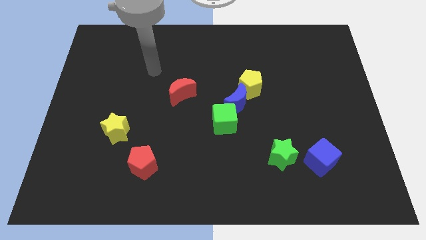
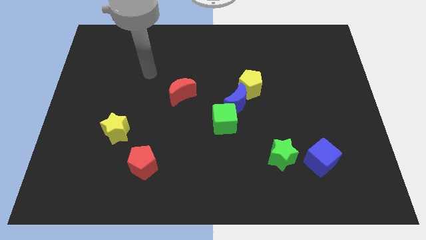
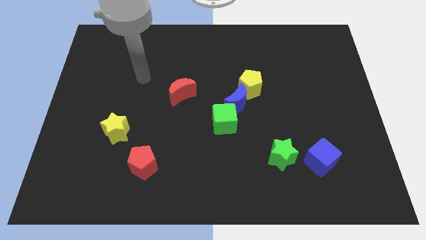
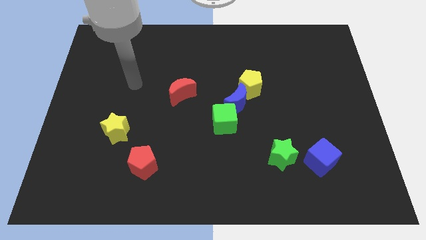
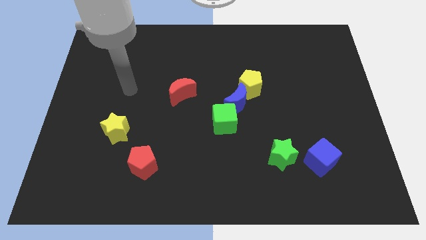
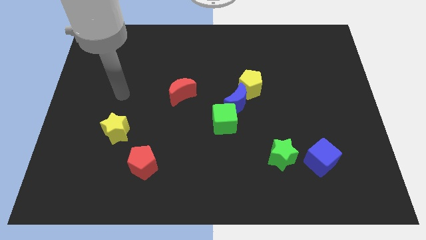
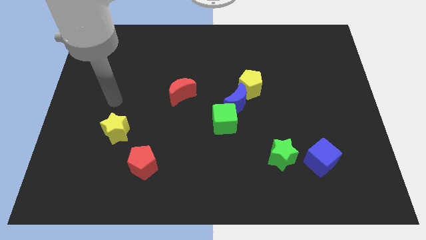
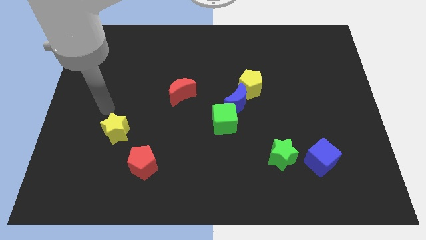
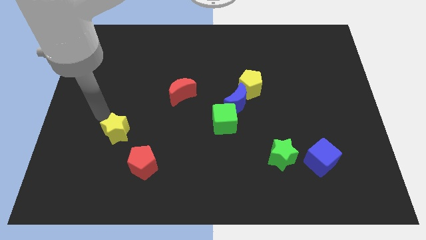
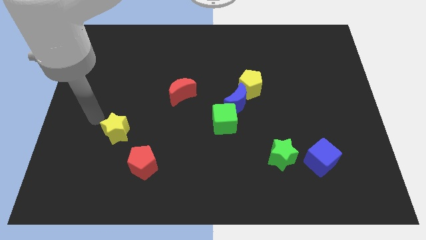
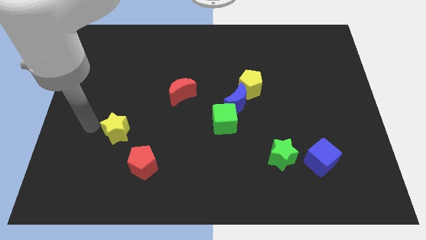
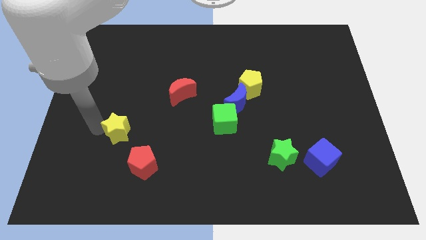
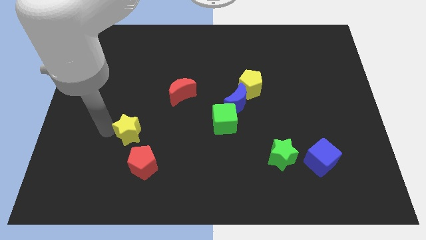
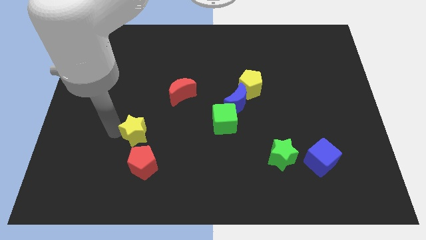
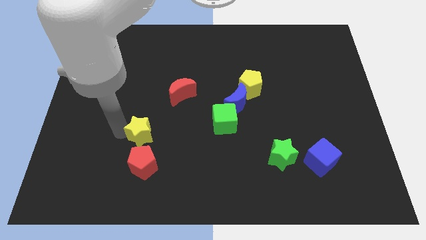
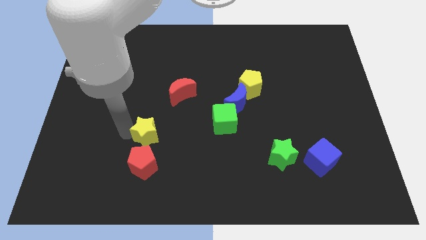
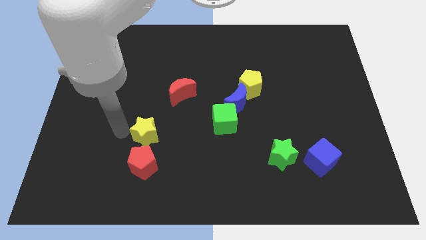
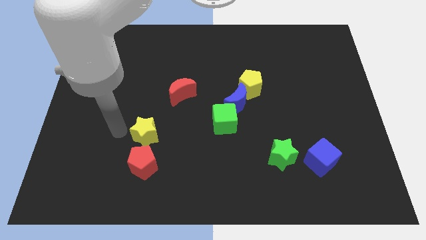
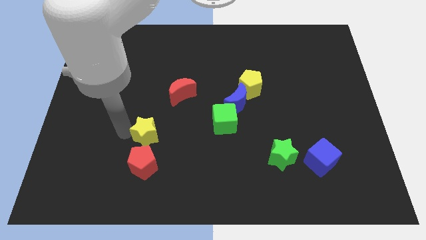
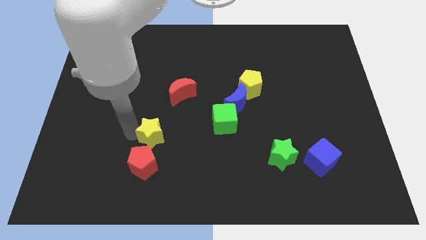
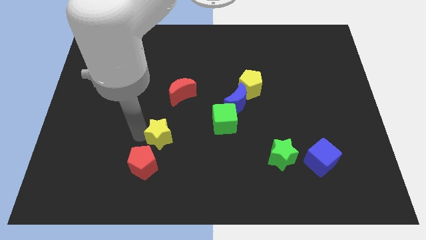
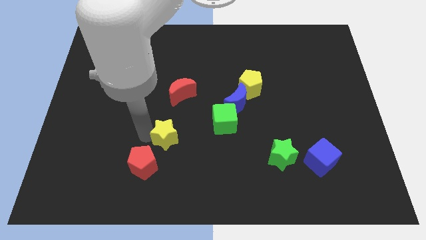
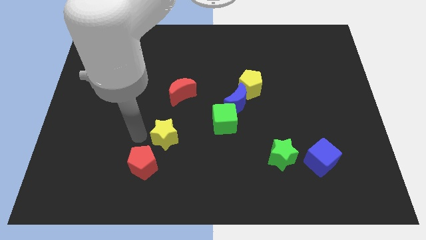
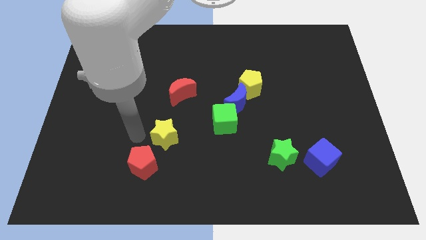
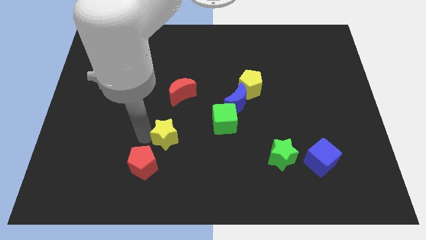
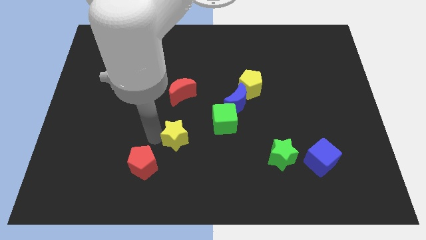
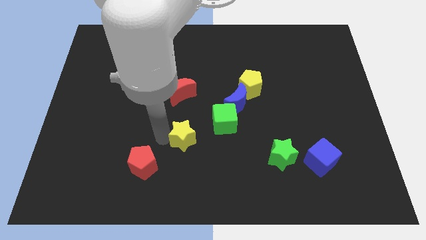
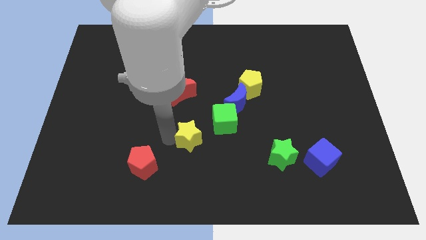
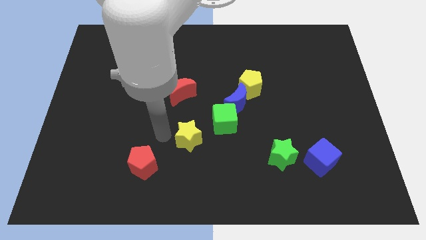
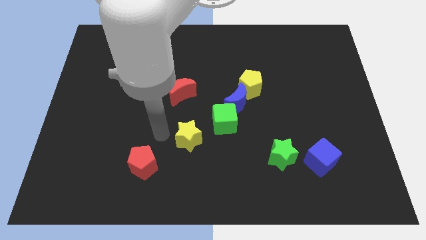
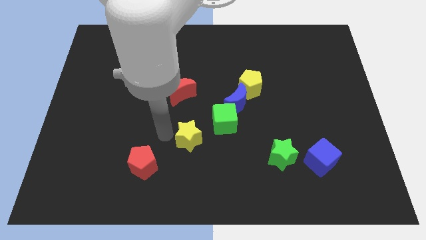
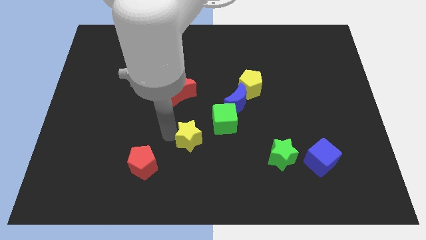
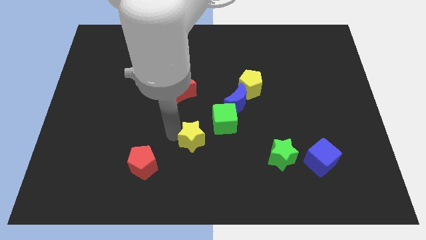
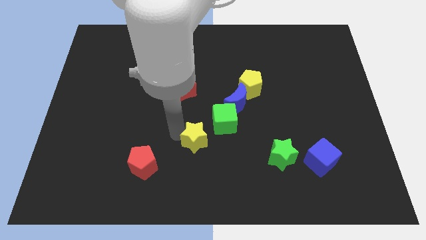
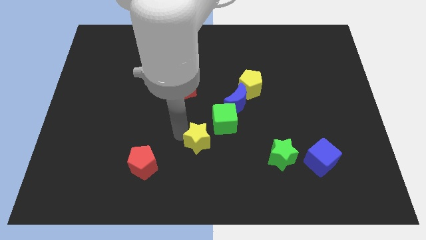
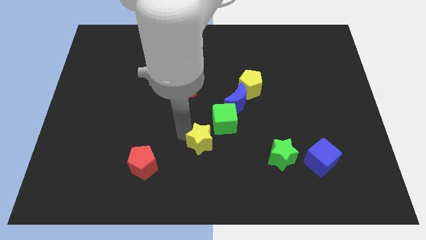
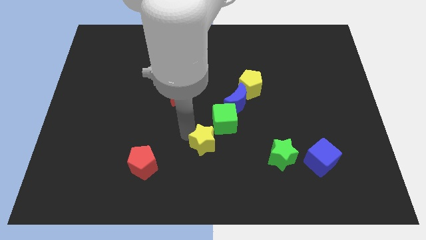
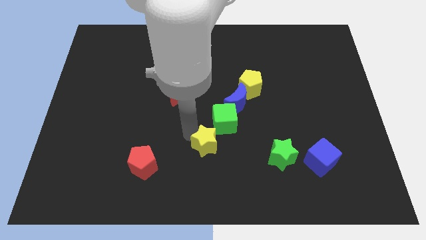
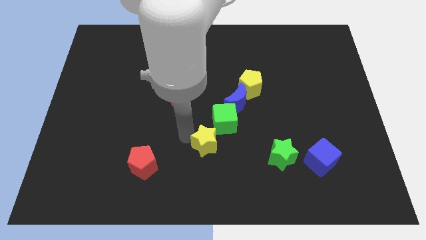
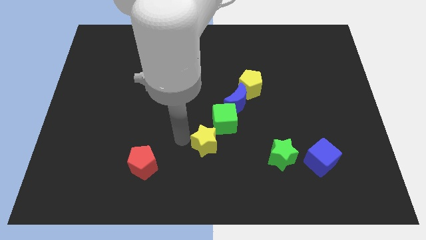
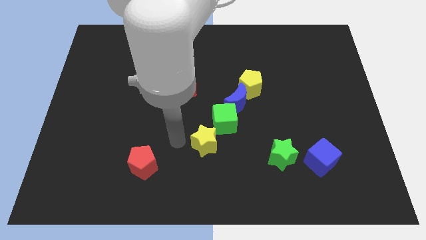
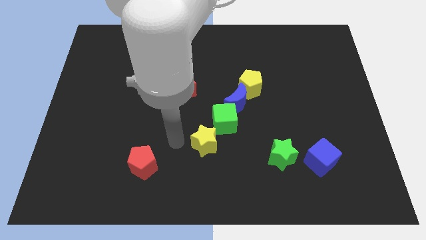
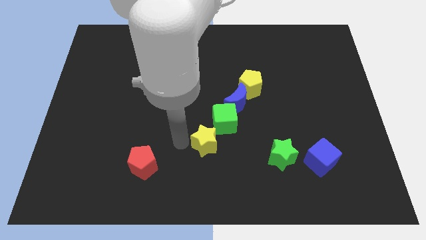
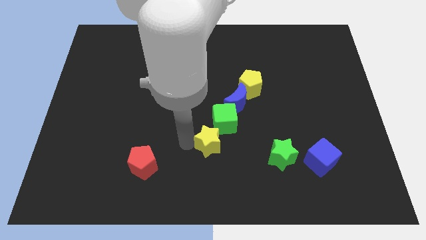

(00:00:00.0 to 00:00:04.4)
move the yellow star to the right

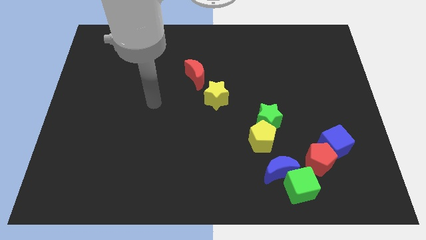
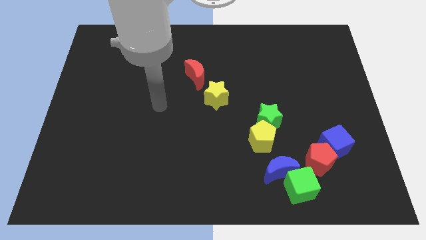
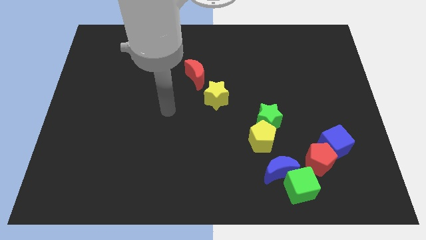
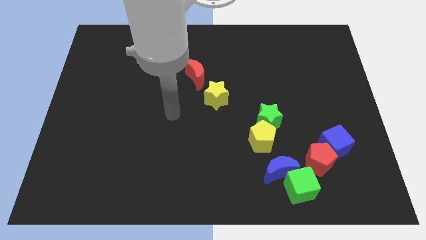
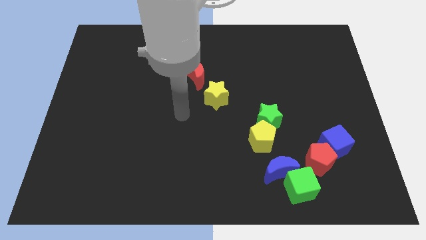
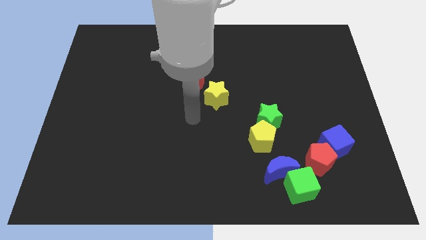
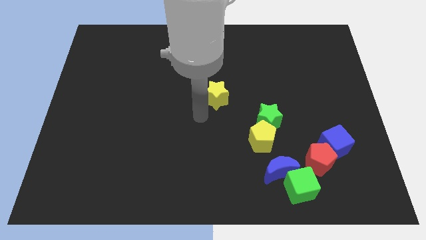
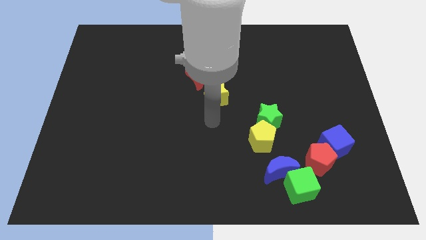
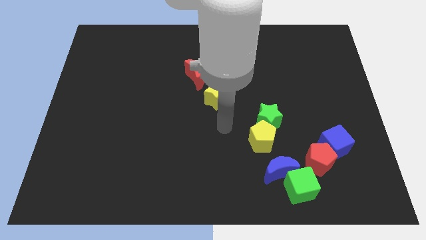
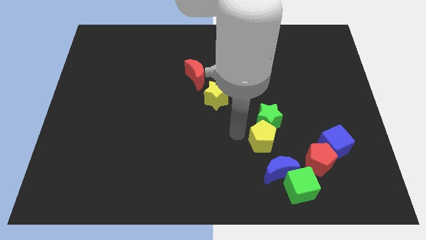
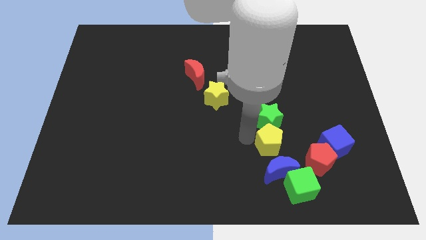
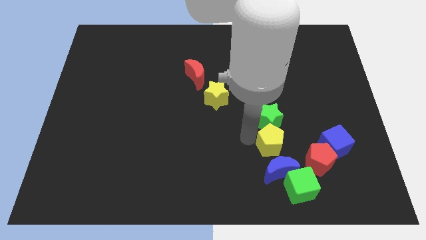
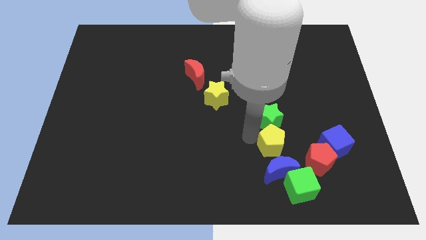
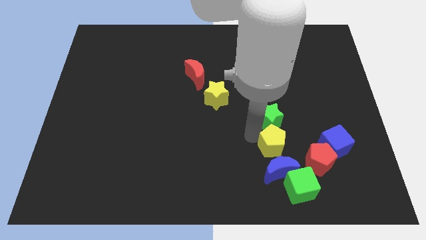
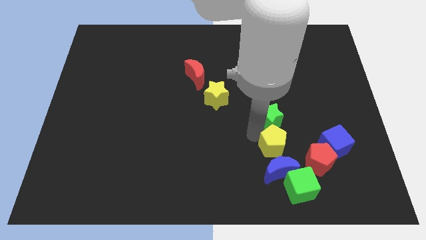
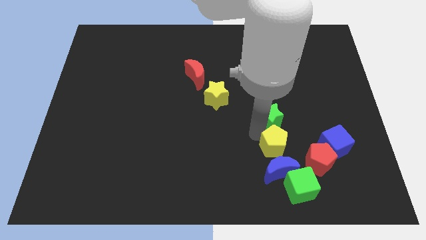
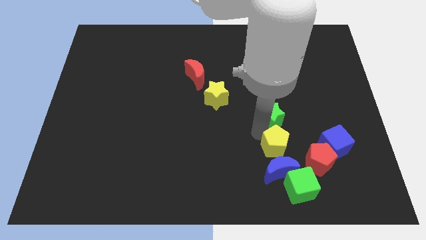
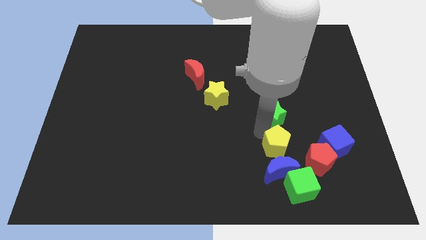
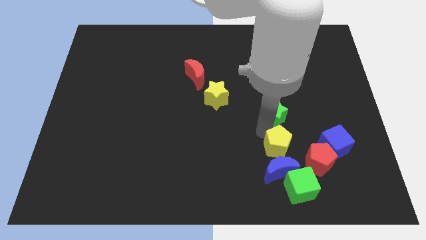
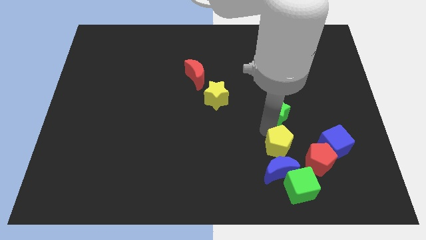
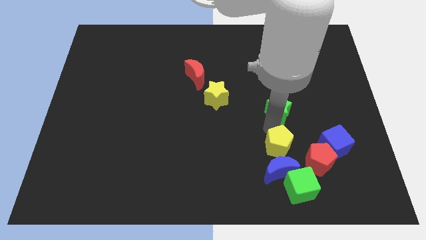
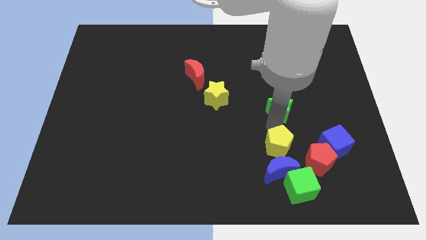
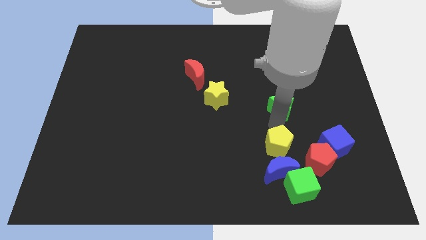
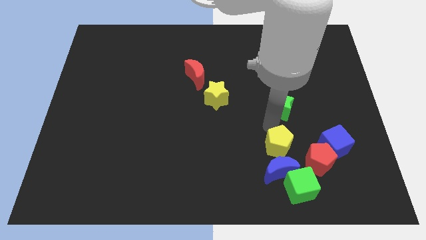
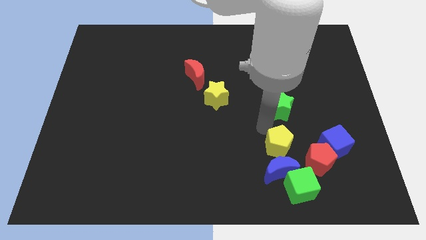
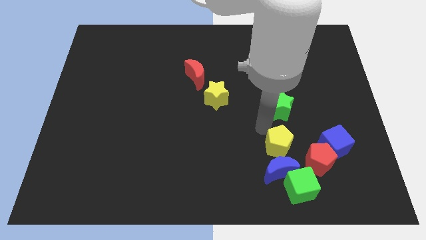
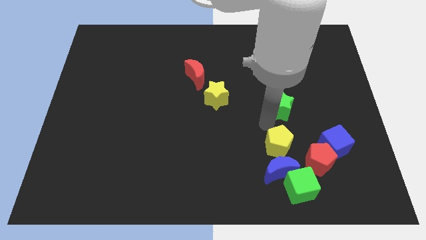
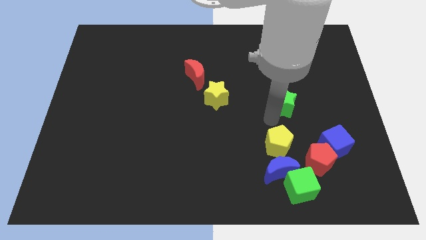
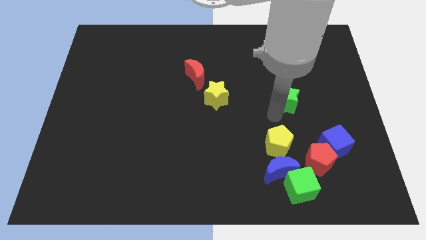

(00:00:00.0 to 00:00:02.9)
move the green star up and then right a little bit

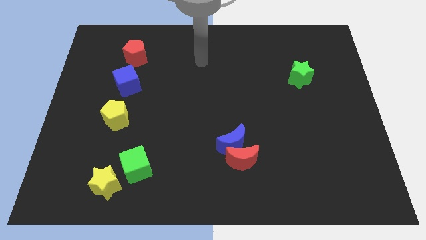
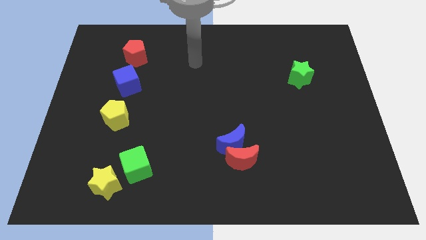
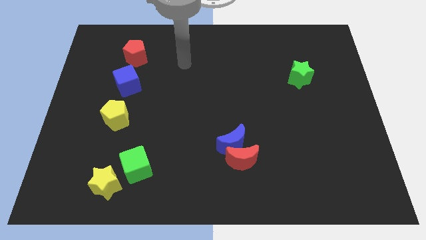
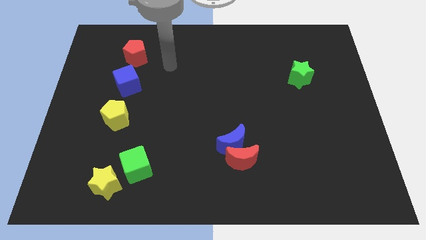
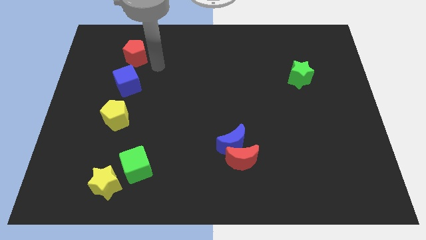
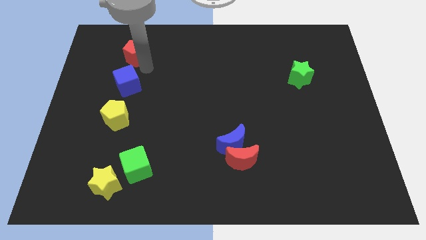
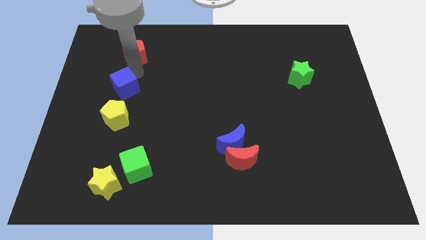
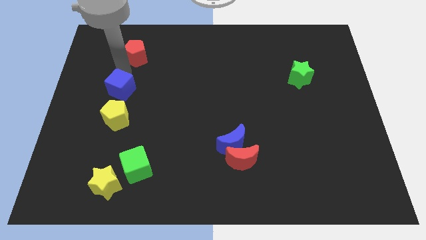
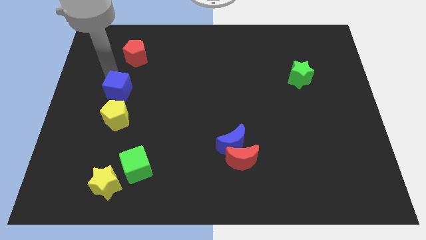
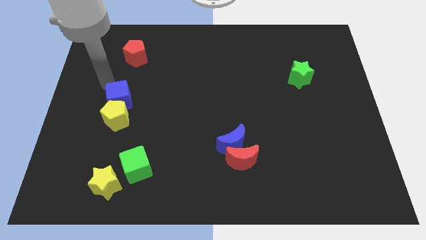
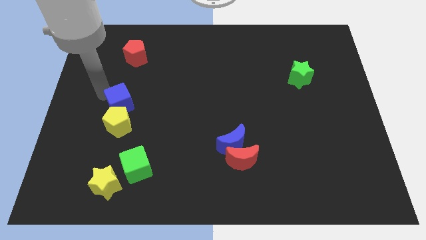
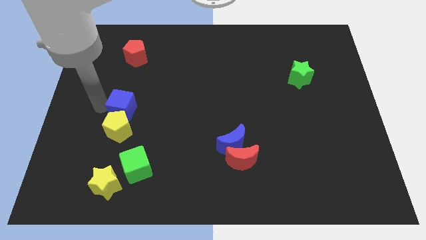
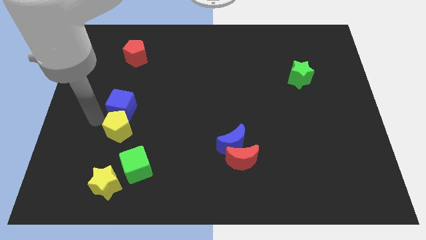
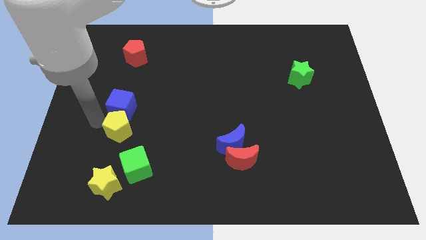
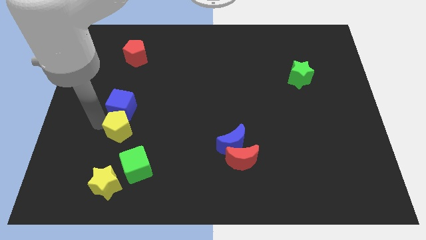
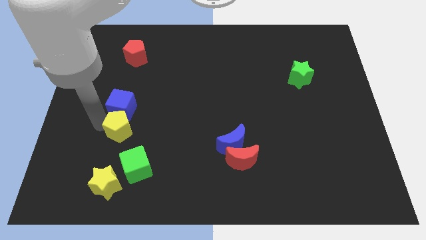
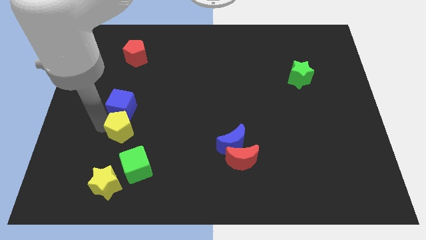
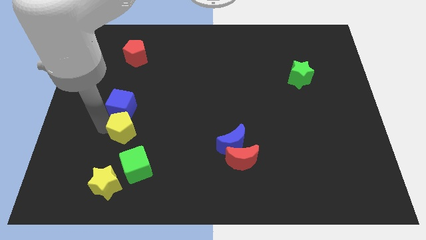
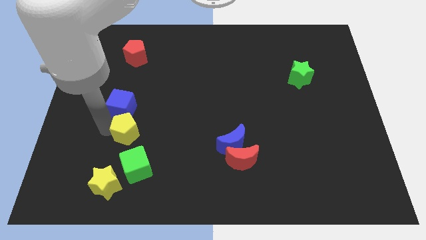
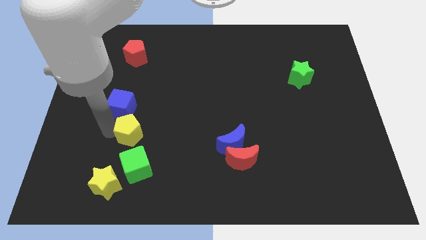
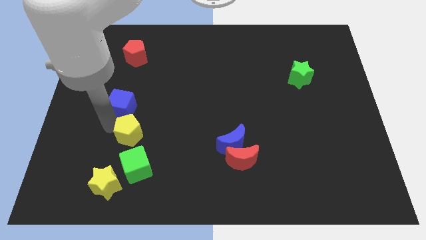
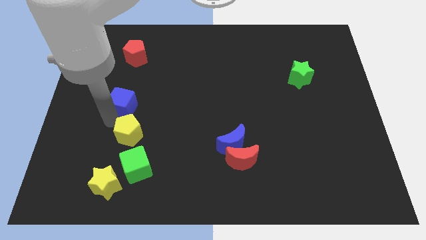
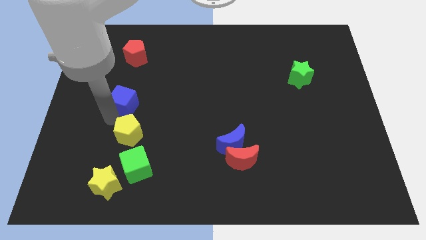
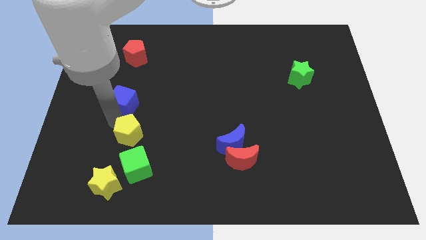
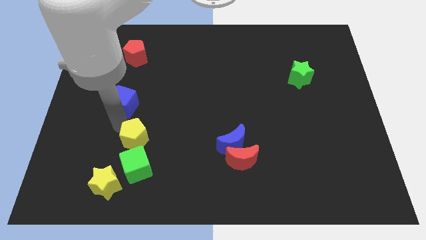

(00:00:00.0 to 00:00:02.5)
move the yellow pentagon diagonally downwards and right a little
